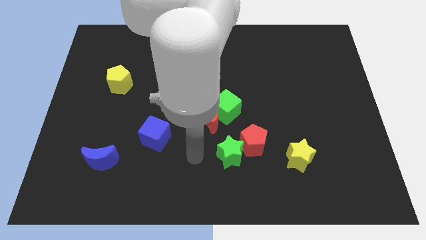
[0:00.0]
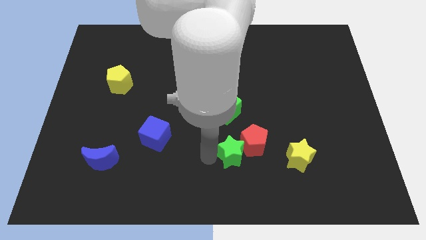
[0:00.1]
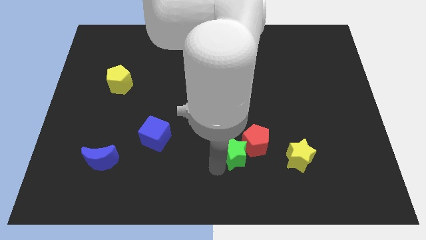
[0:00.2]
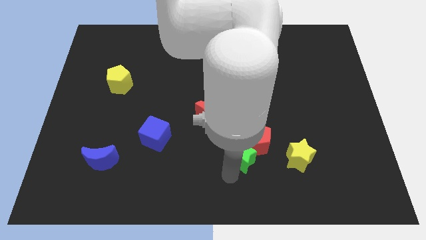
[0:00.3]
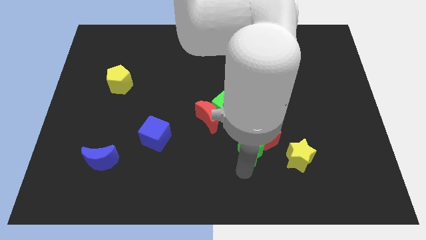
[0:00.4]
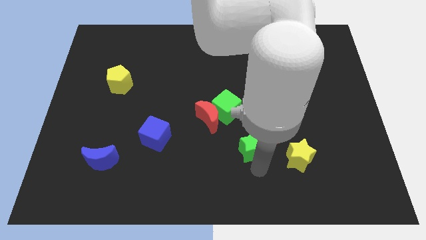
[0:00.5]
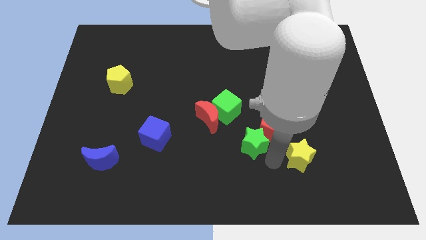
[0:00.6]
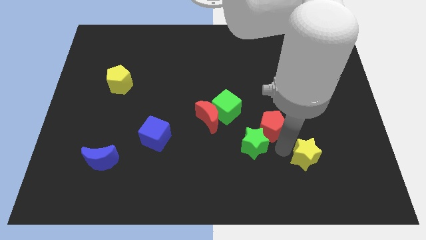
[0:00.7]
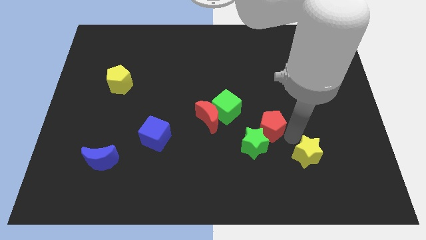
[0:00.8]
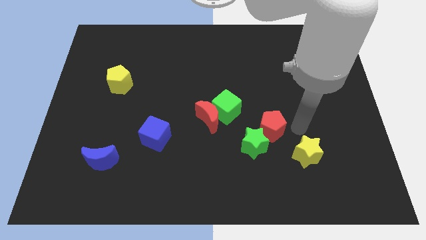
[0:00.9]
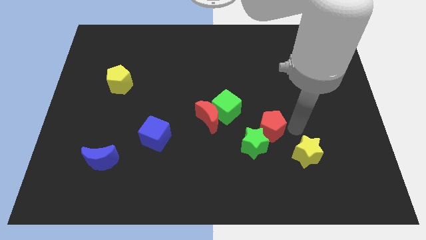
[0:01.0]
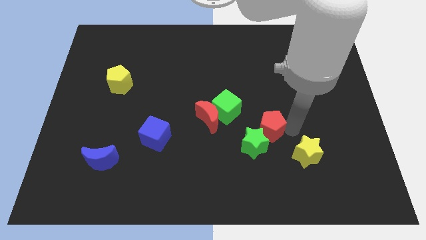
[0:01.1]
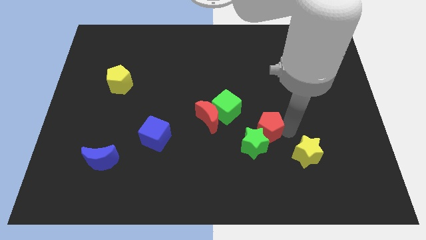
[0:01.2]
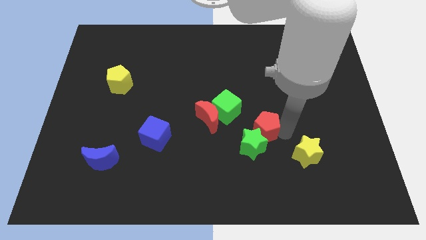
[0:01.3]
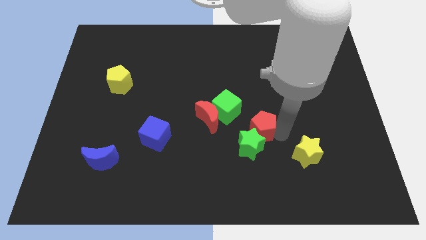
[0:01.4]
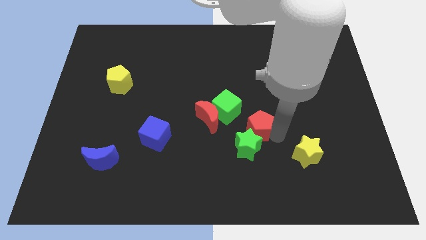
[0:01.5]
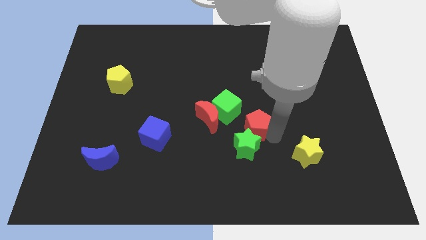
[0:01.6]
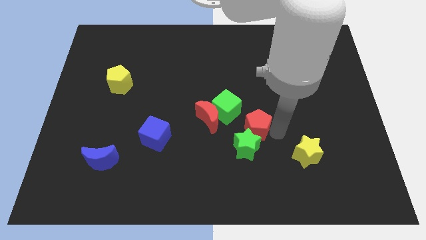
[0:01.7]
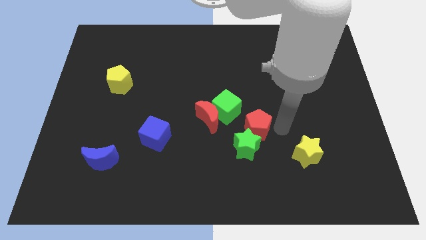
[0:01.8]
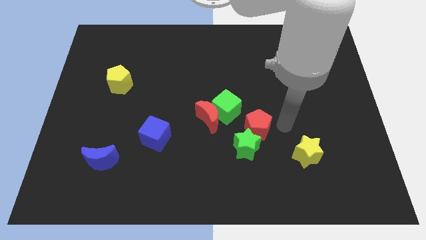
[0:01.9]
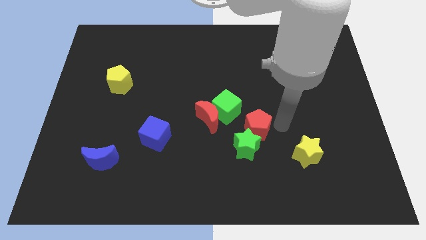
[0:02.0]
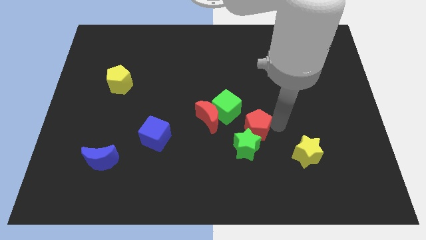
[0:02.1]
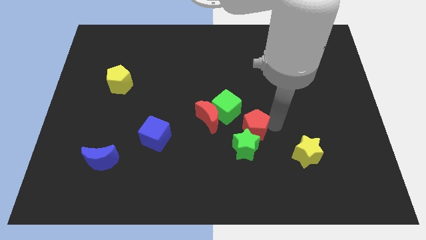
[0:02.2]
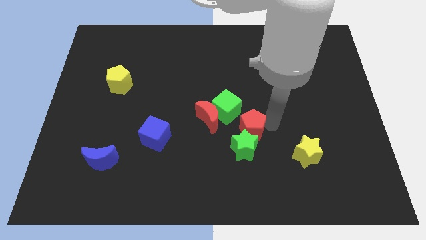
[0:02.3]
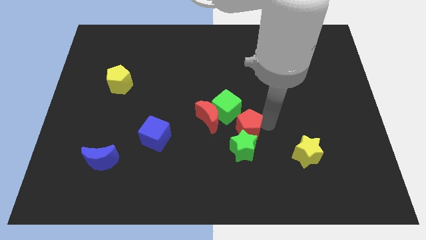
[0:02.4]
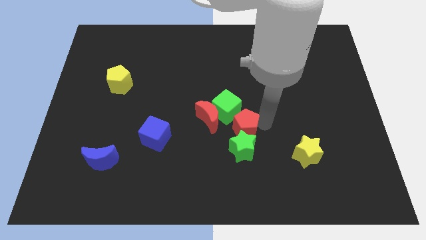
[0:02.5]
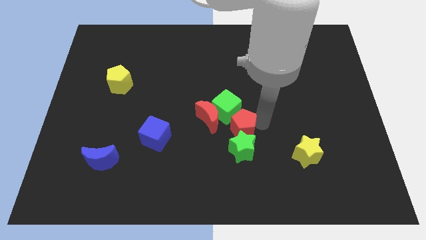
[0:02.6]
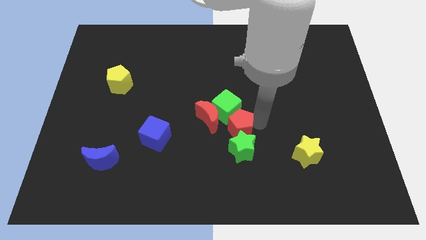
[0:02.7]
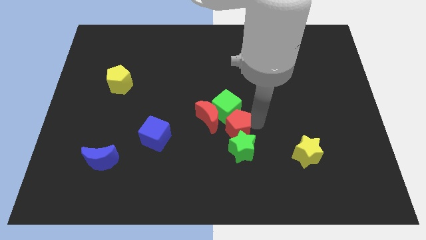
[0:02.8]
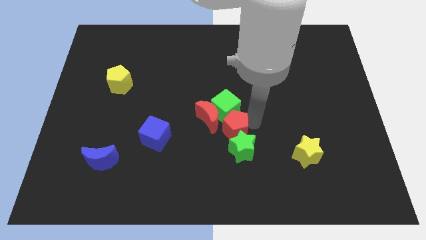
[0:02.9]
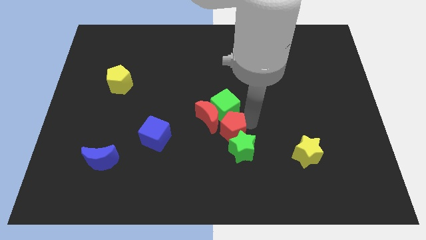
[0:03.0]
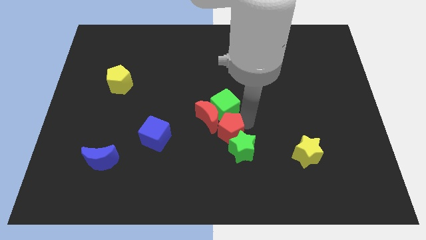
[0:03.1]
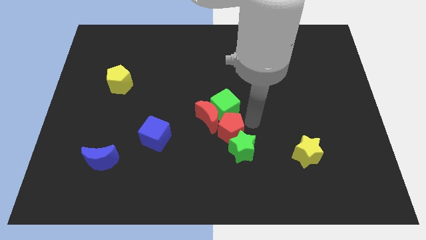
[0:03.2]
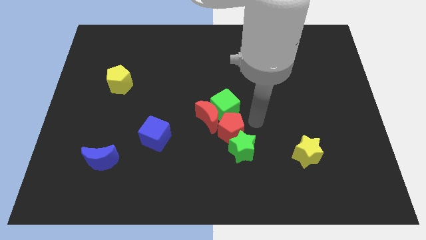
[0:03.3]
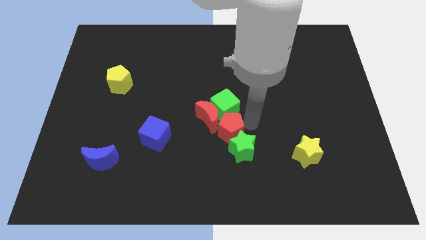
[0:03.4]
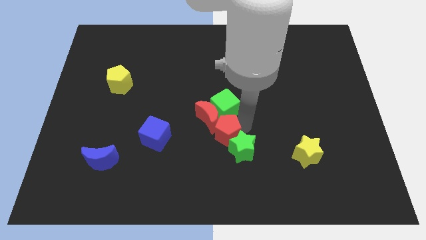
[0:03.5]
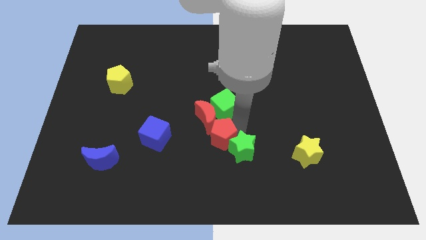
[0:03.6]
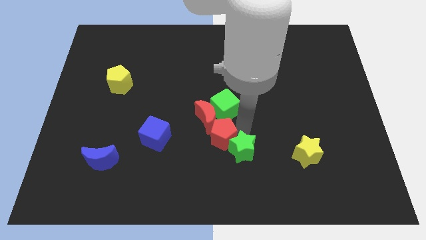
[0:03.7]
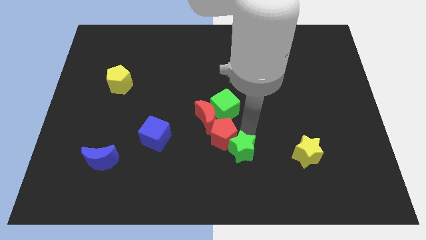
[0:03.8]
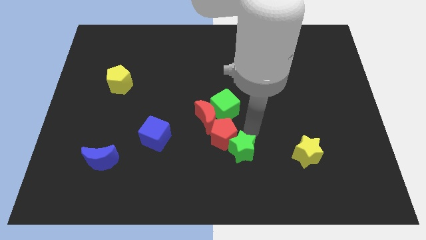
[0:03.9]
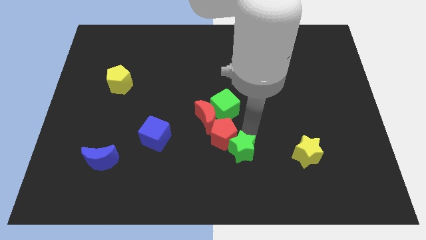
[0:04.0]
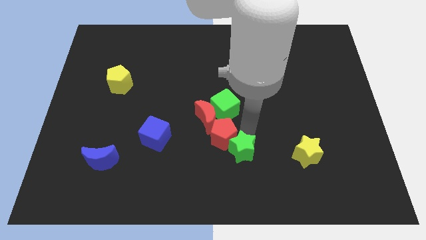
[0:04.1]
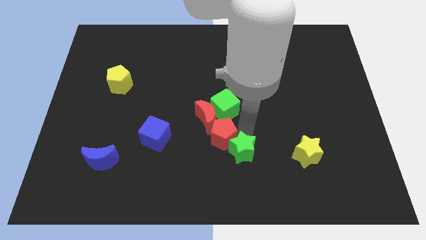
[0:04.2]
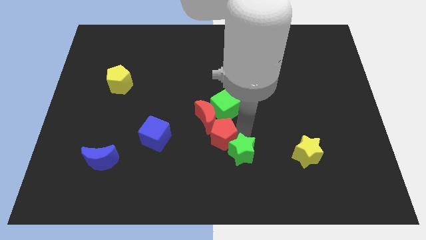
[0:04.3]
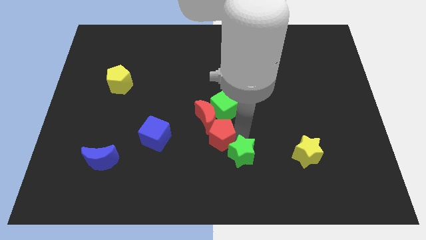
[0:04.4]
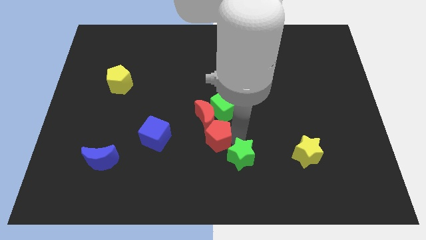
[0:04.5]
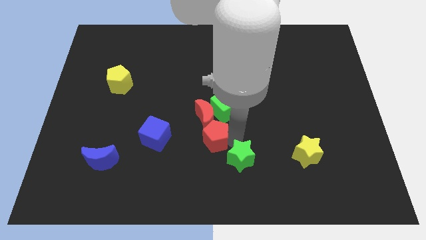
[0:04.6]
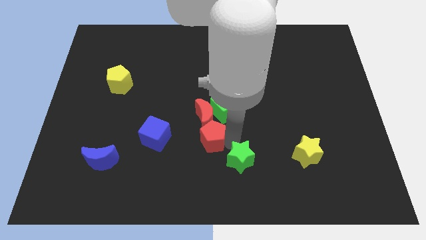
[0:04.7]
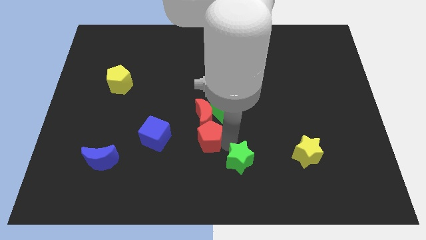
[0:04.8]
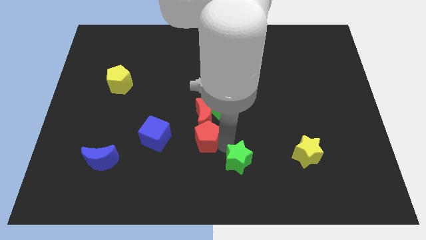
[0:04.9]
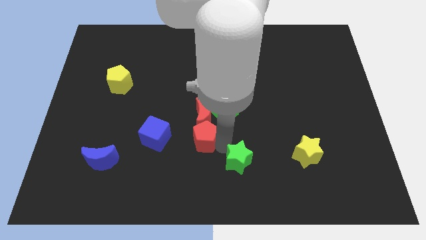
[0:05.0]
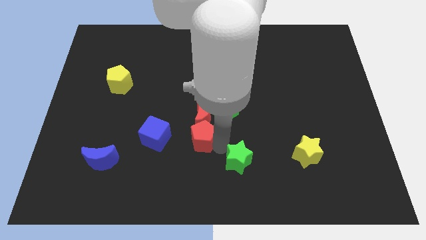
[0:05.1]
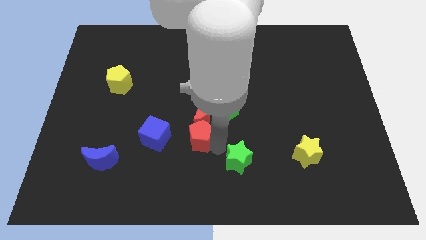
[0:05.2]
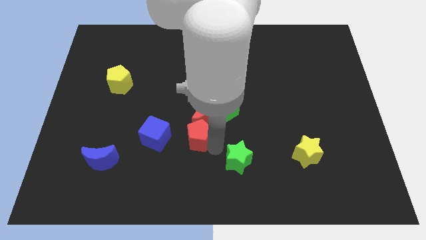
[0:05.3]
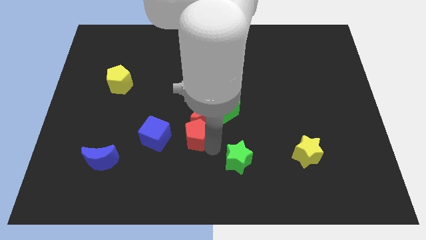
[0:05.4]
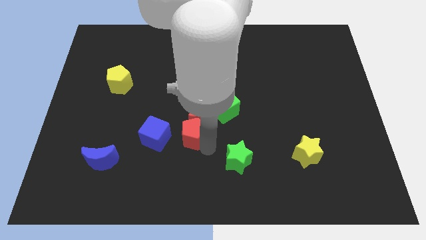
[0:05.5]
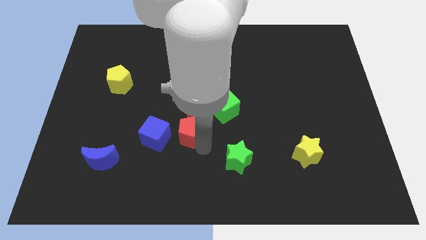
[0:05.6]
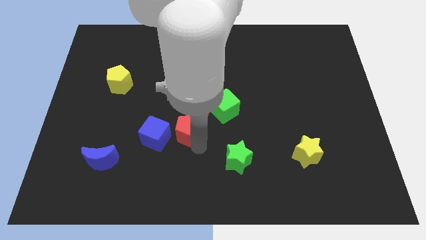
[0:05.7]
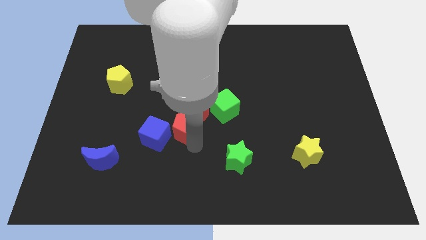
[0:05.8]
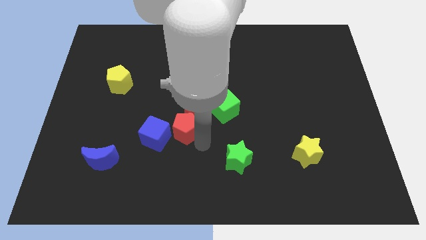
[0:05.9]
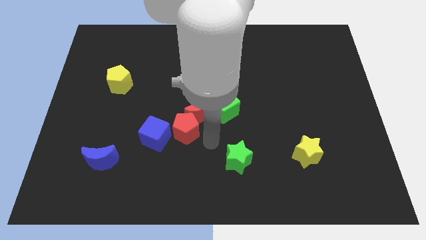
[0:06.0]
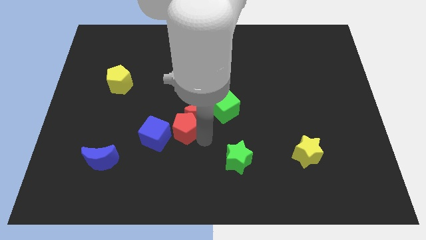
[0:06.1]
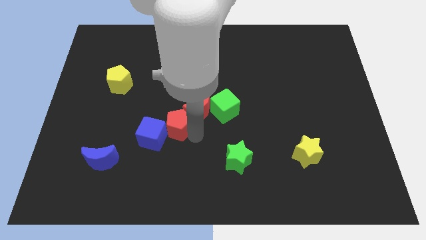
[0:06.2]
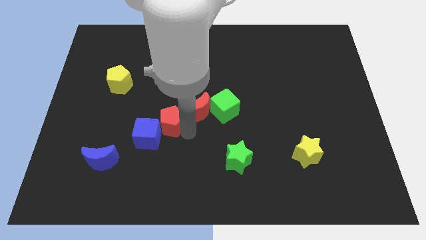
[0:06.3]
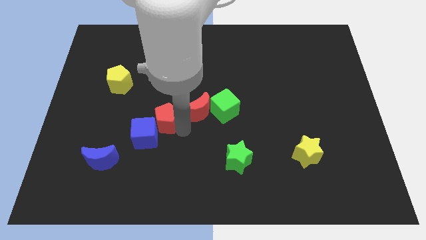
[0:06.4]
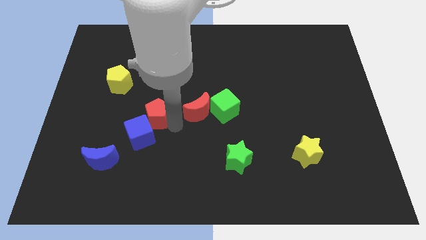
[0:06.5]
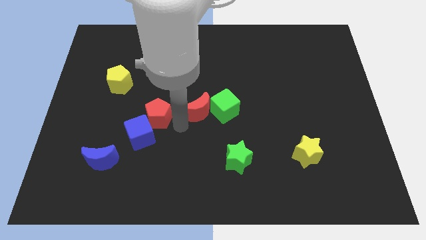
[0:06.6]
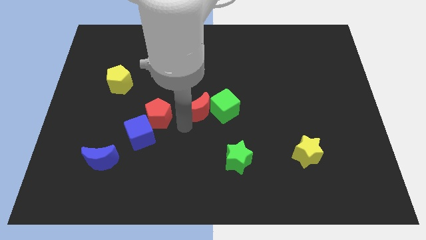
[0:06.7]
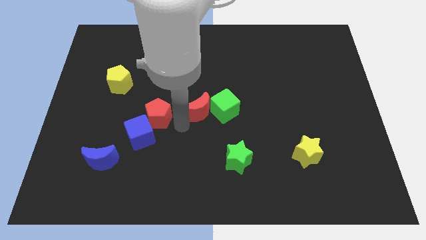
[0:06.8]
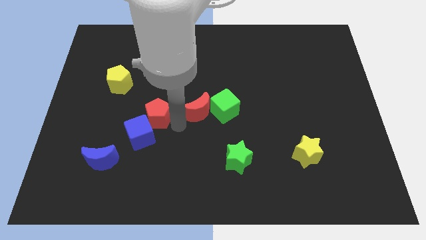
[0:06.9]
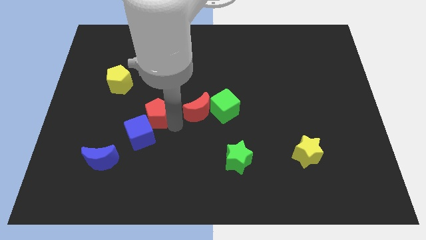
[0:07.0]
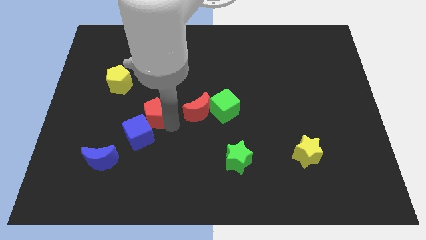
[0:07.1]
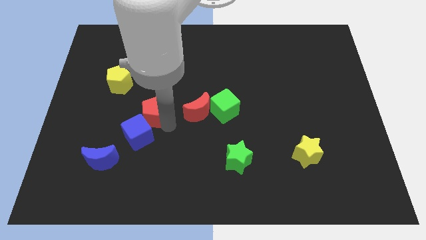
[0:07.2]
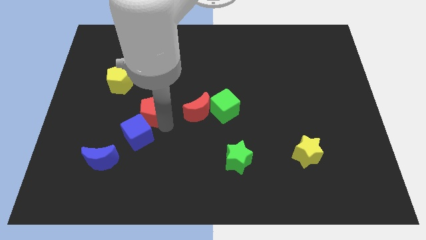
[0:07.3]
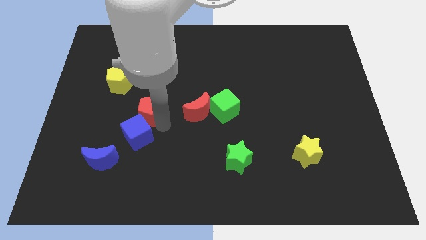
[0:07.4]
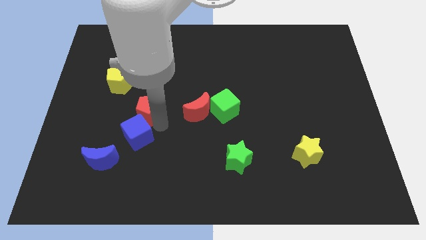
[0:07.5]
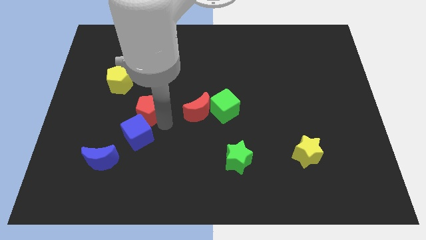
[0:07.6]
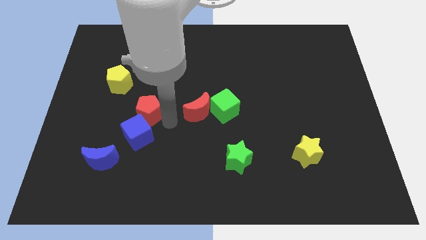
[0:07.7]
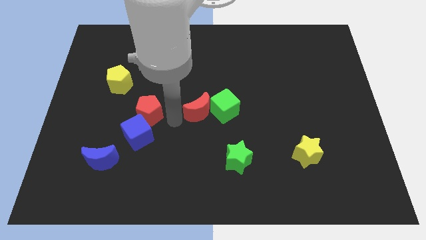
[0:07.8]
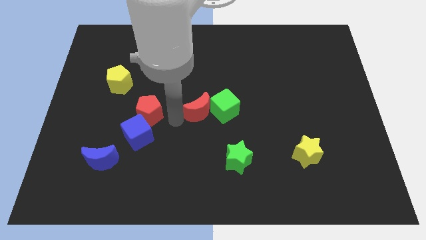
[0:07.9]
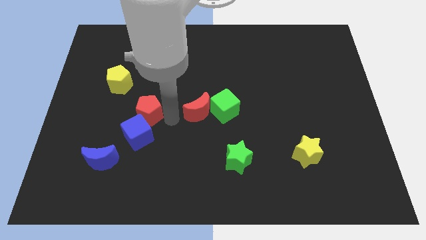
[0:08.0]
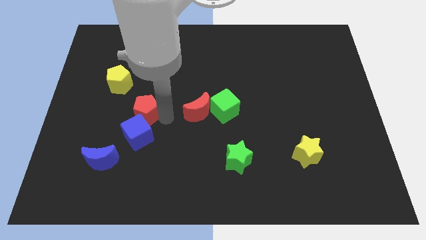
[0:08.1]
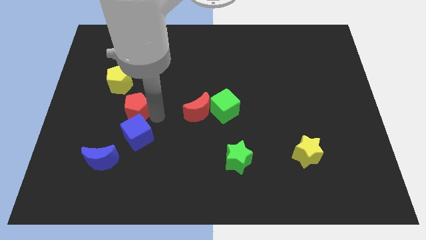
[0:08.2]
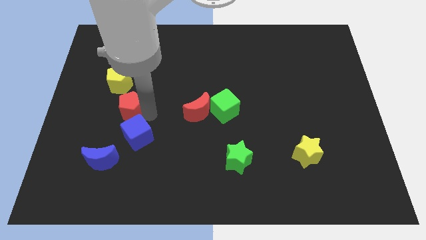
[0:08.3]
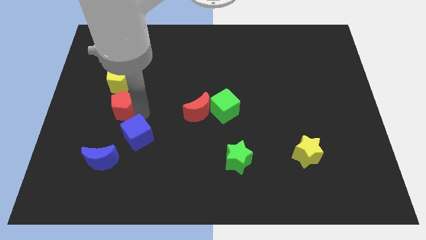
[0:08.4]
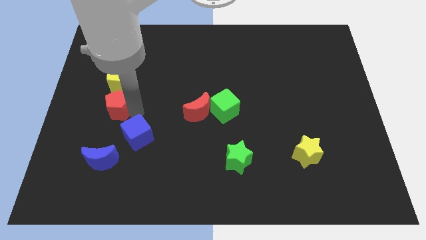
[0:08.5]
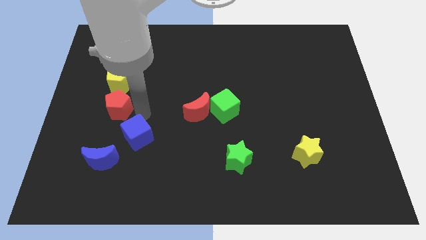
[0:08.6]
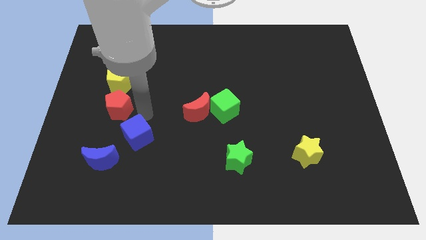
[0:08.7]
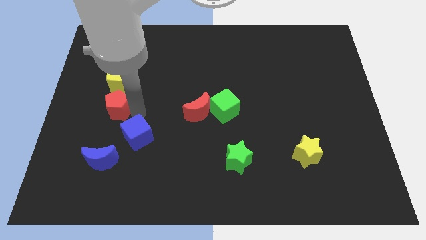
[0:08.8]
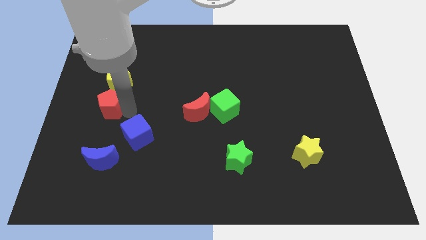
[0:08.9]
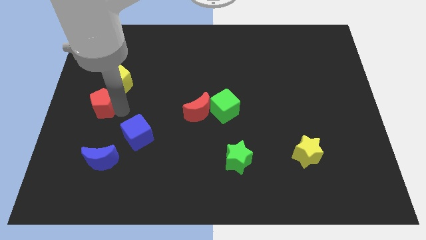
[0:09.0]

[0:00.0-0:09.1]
slide the red pentagon to the left side of the board
